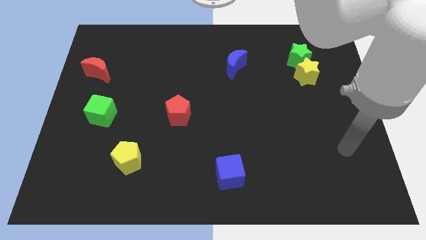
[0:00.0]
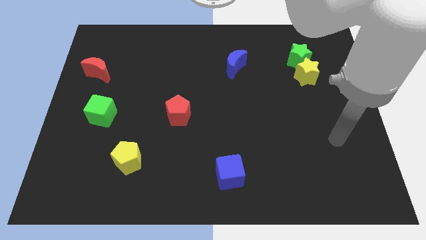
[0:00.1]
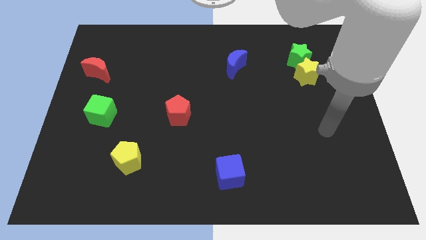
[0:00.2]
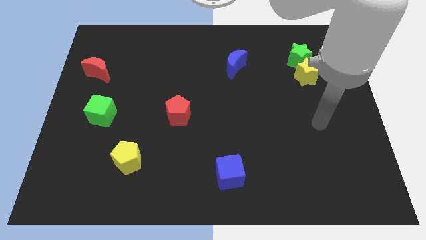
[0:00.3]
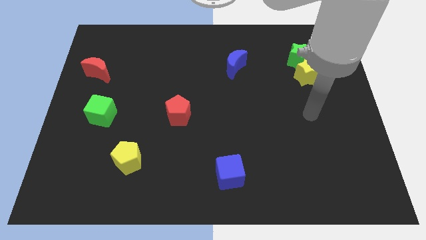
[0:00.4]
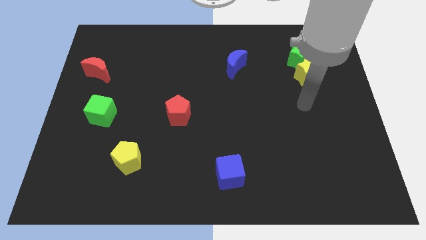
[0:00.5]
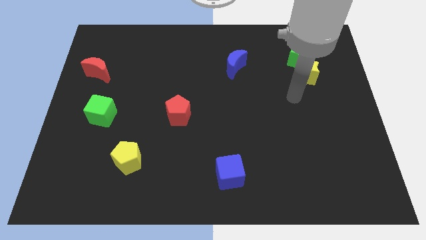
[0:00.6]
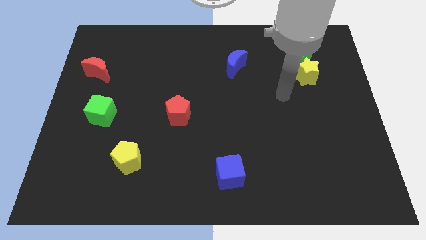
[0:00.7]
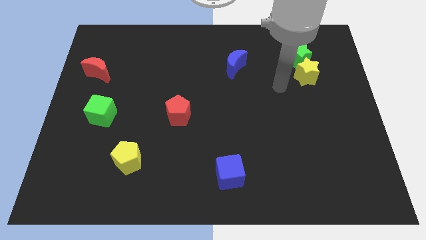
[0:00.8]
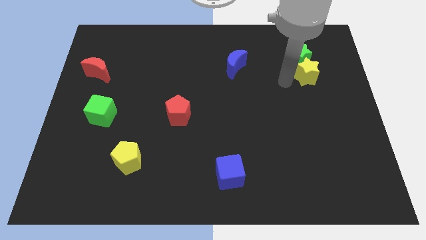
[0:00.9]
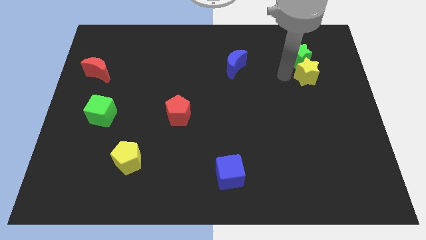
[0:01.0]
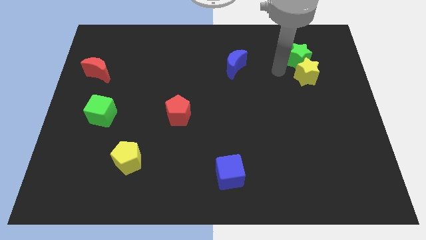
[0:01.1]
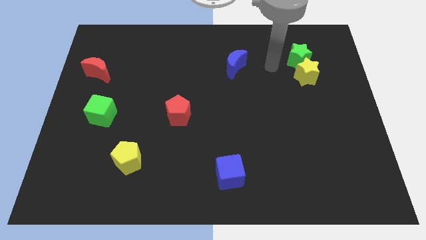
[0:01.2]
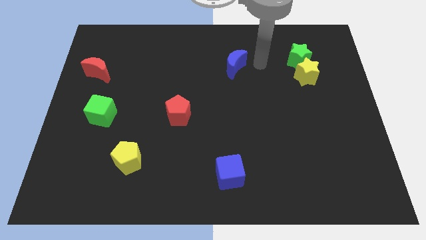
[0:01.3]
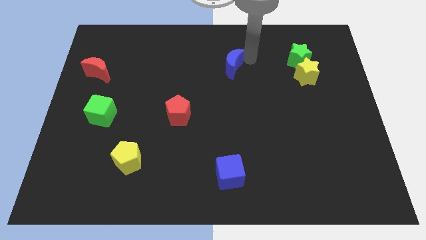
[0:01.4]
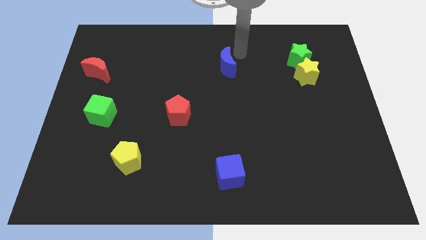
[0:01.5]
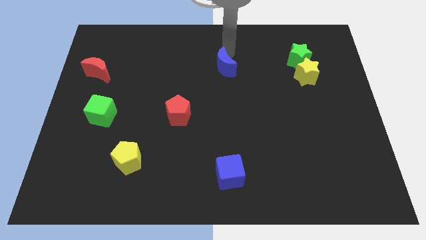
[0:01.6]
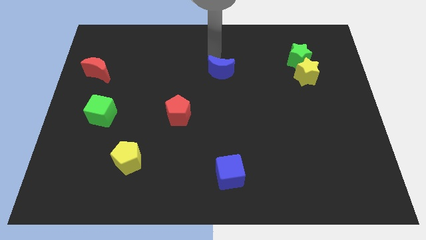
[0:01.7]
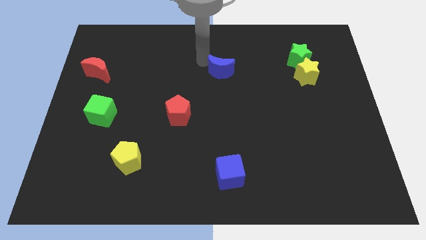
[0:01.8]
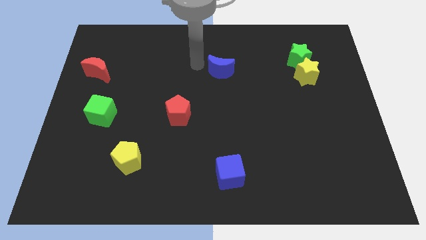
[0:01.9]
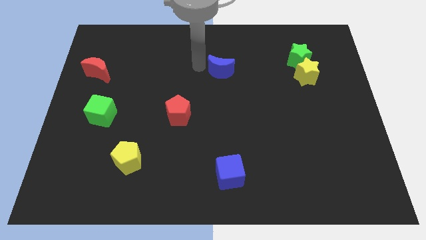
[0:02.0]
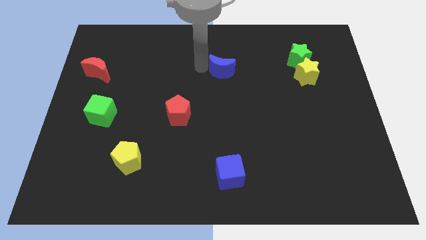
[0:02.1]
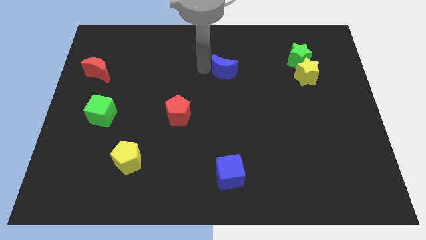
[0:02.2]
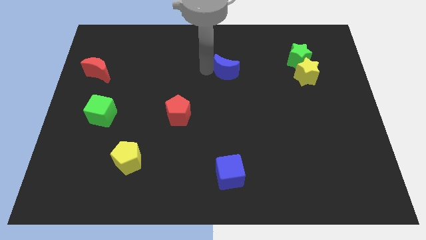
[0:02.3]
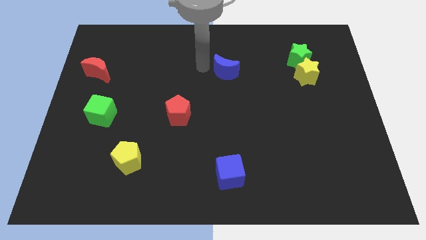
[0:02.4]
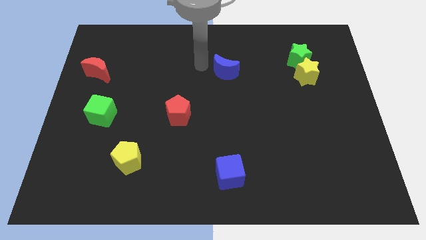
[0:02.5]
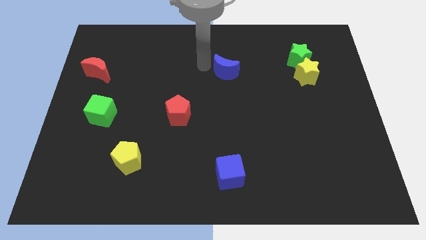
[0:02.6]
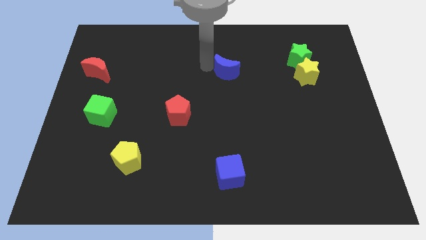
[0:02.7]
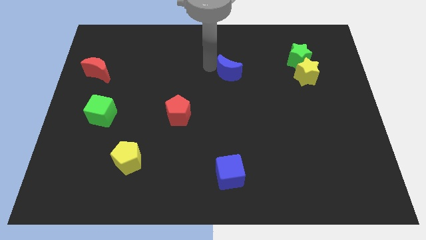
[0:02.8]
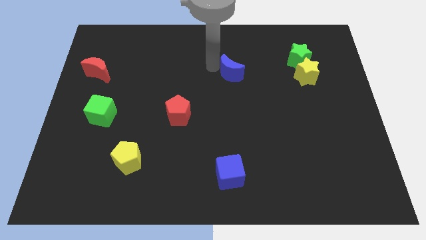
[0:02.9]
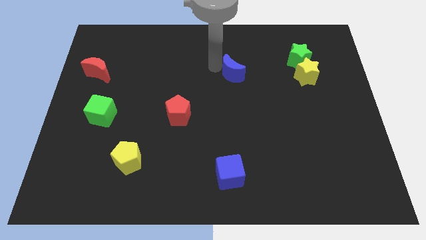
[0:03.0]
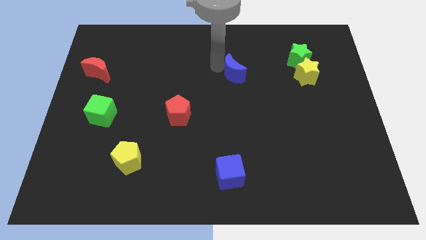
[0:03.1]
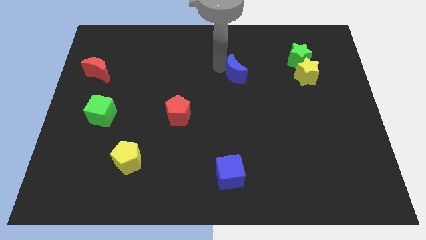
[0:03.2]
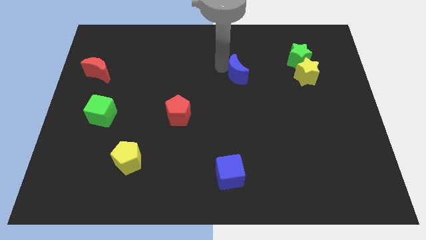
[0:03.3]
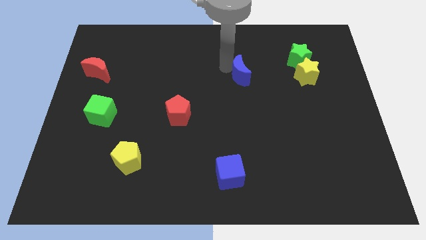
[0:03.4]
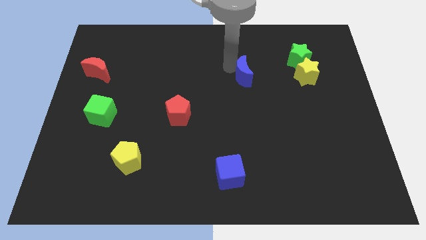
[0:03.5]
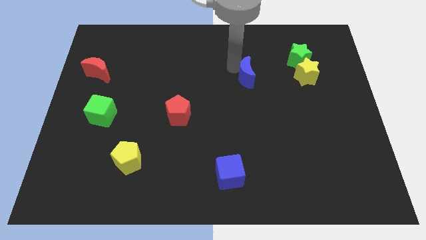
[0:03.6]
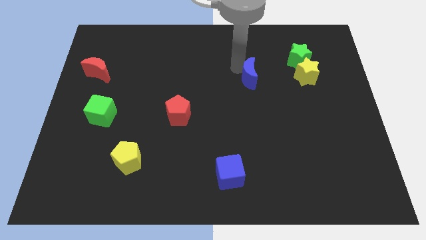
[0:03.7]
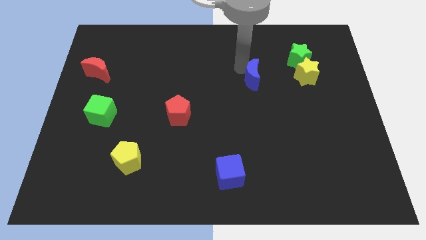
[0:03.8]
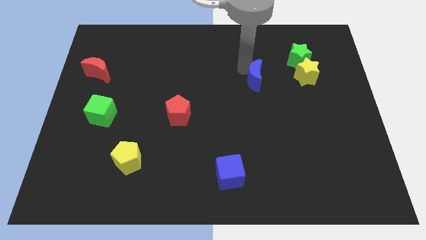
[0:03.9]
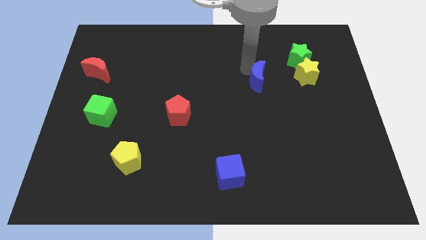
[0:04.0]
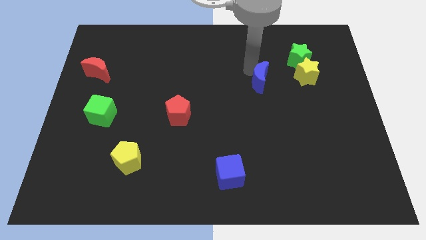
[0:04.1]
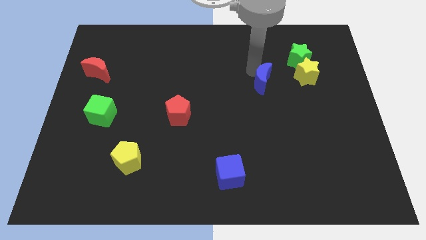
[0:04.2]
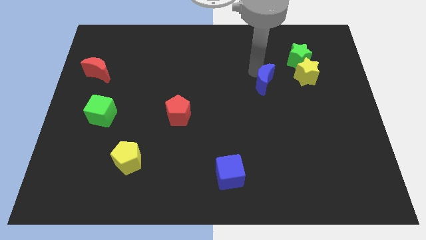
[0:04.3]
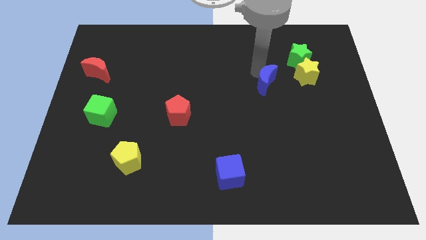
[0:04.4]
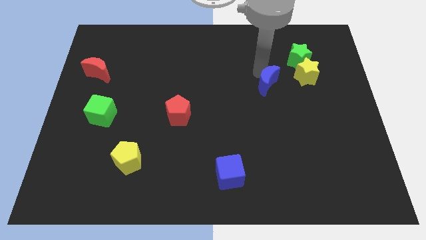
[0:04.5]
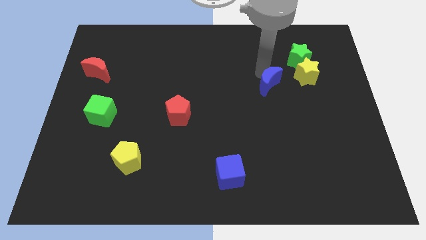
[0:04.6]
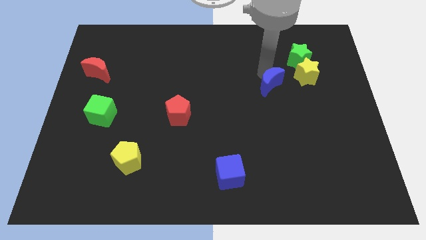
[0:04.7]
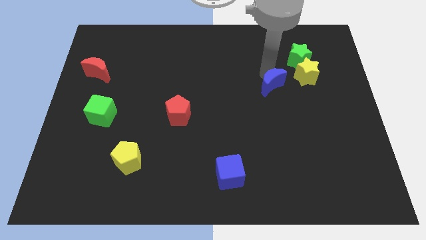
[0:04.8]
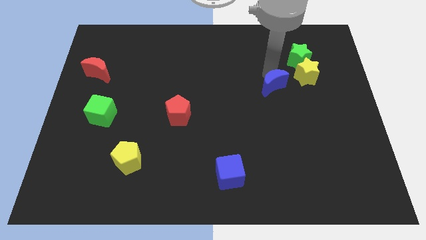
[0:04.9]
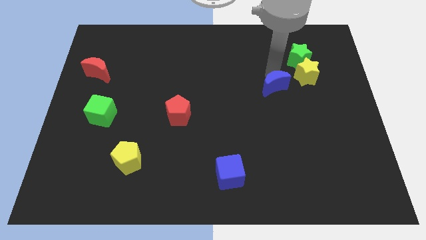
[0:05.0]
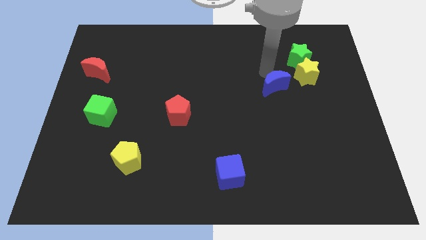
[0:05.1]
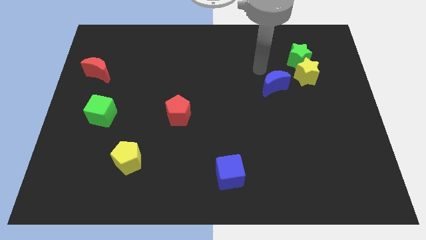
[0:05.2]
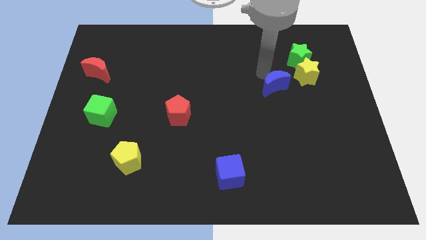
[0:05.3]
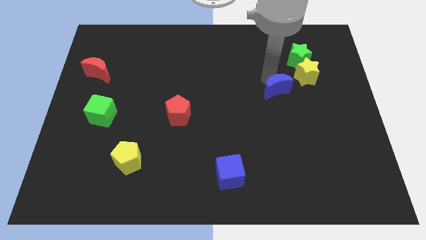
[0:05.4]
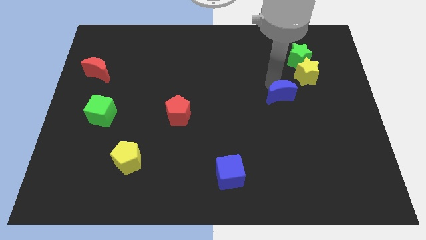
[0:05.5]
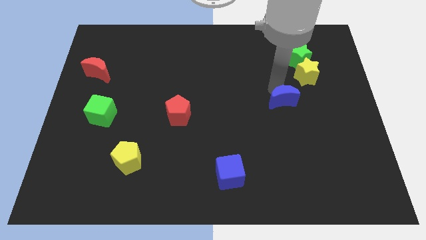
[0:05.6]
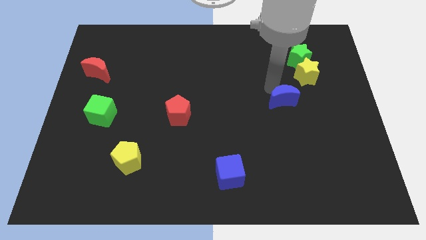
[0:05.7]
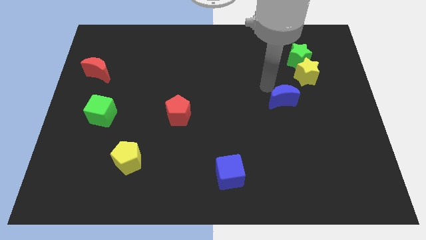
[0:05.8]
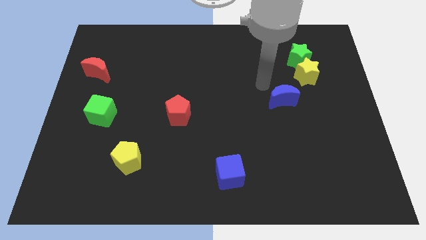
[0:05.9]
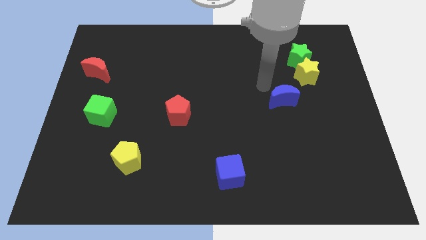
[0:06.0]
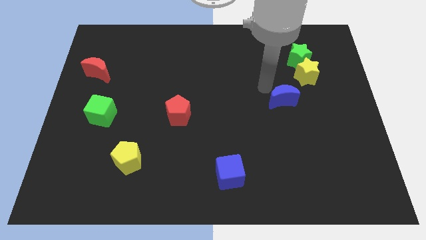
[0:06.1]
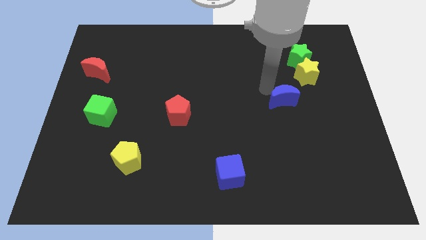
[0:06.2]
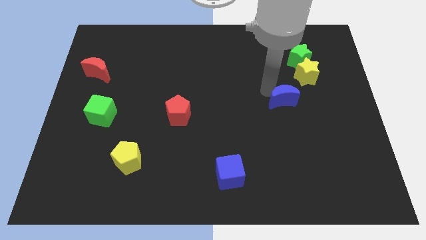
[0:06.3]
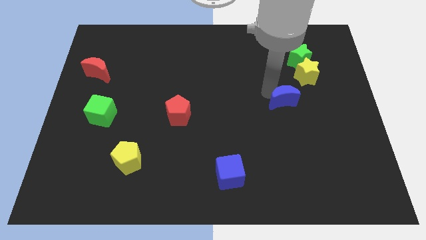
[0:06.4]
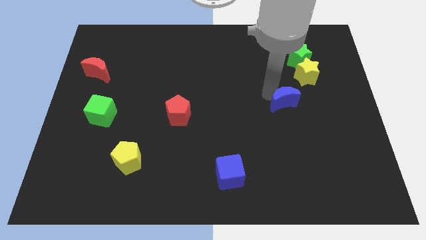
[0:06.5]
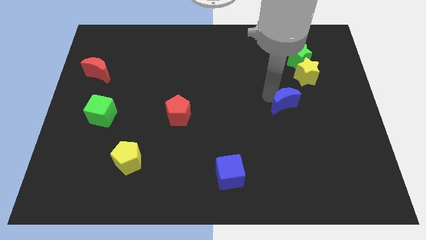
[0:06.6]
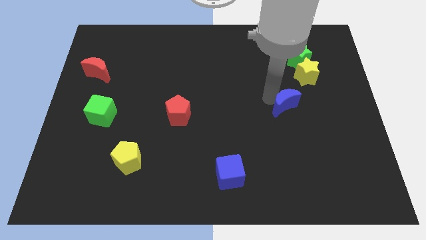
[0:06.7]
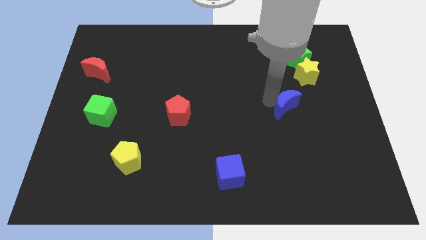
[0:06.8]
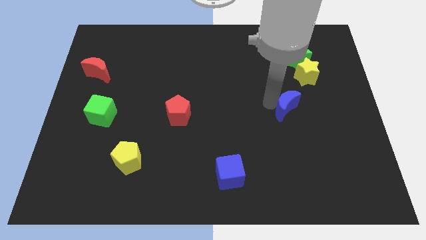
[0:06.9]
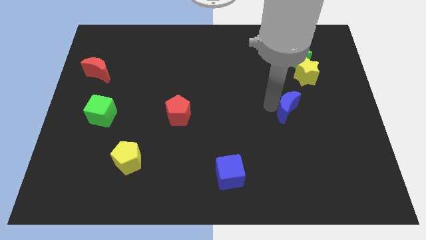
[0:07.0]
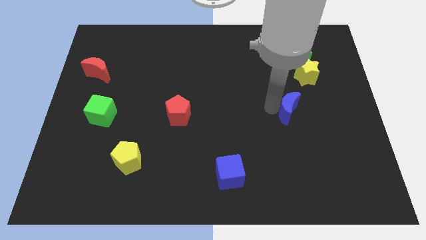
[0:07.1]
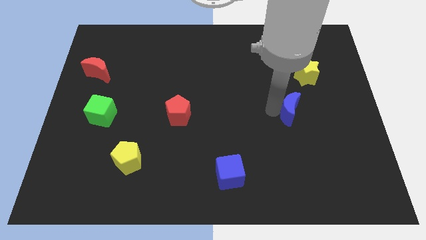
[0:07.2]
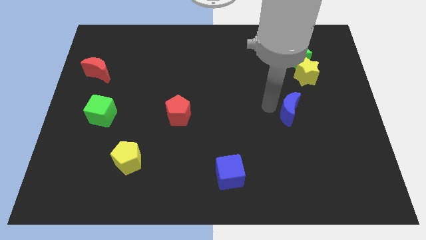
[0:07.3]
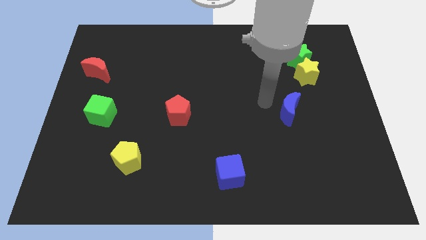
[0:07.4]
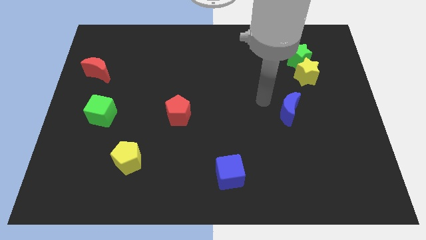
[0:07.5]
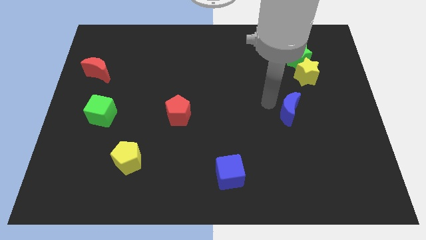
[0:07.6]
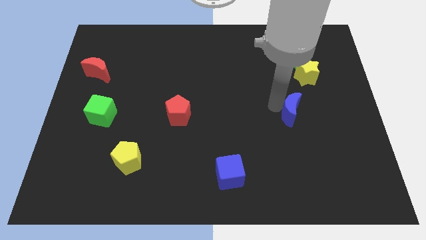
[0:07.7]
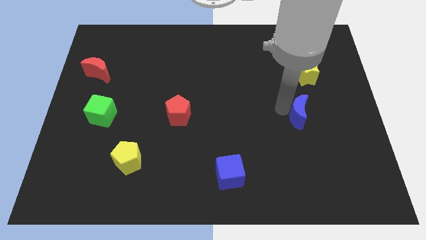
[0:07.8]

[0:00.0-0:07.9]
move the blue moon downwards and to the right
